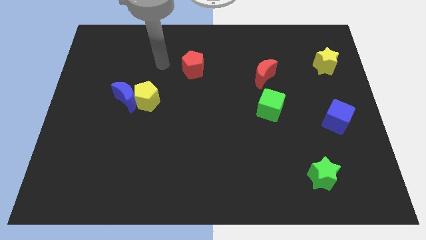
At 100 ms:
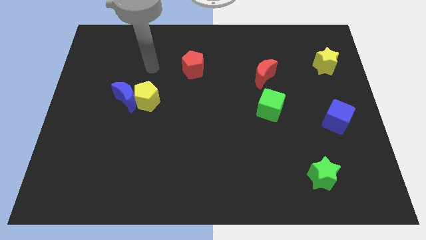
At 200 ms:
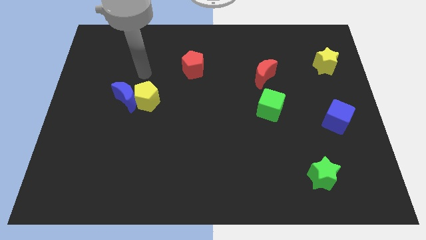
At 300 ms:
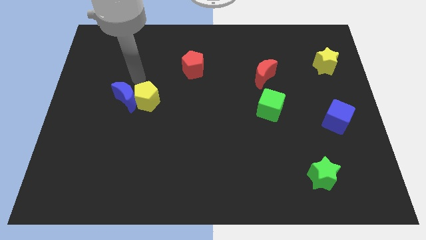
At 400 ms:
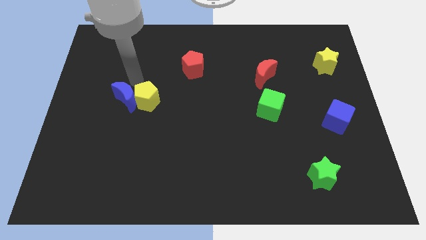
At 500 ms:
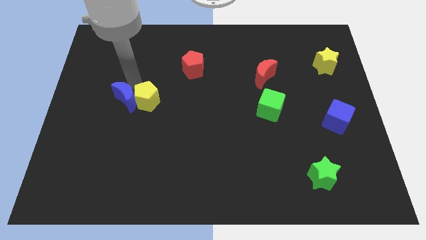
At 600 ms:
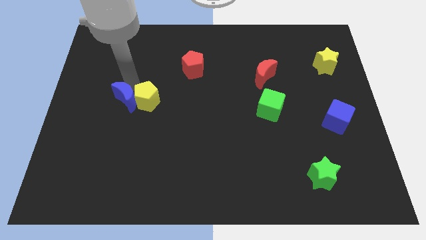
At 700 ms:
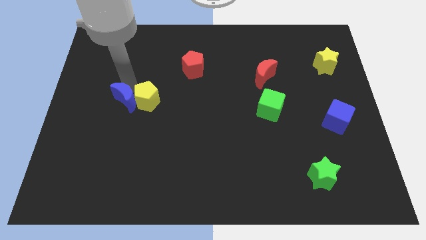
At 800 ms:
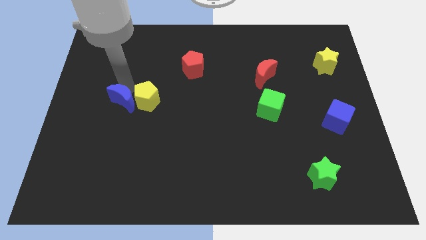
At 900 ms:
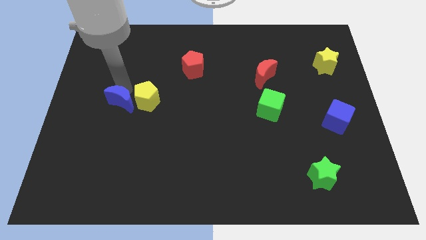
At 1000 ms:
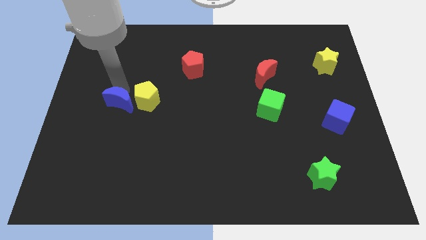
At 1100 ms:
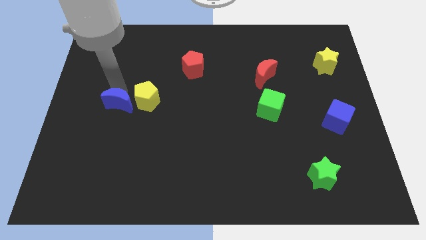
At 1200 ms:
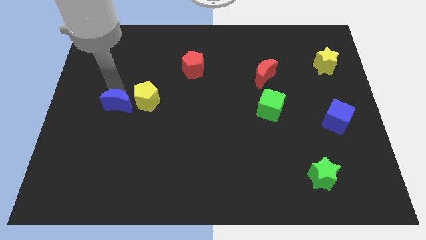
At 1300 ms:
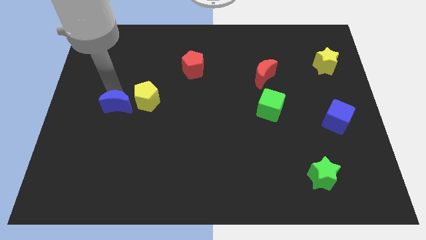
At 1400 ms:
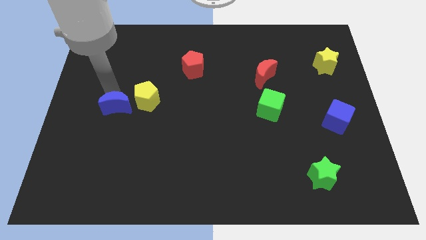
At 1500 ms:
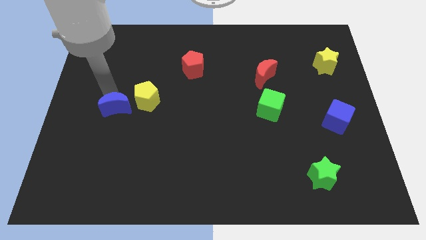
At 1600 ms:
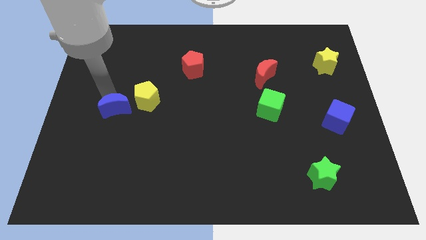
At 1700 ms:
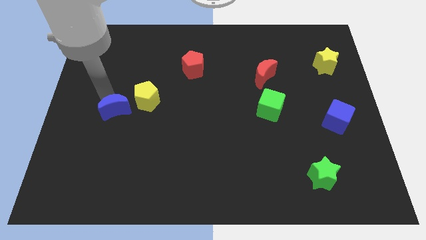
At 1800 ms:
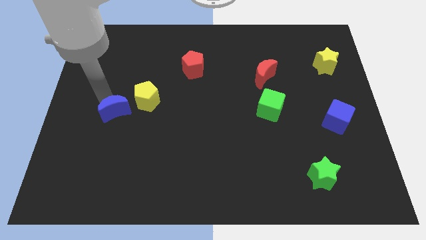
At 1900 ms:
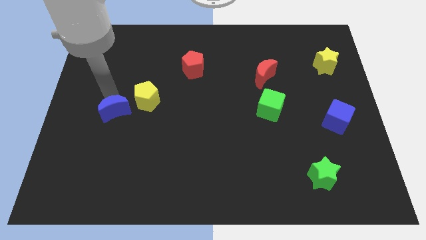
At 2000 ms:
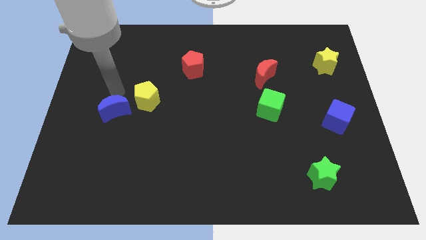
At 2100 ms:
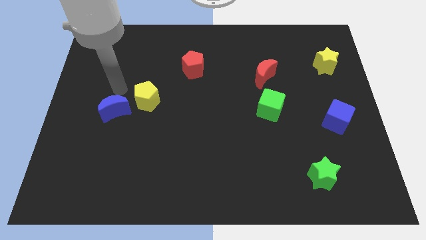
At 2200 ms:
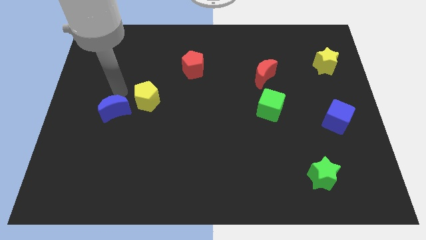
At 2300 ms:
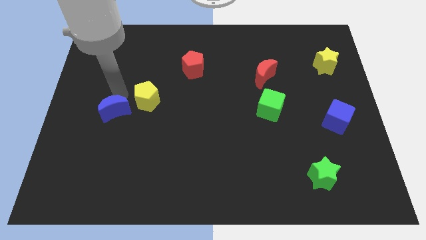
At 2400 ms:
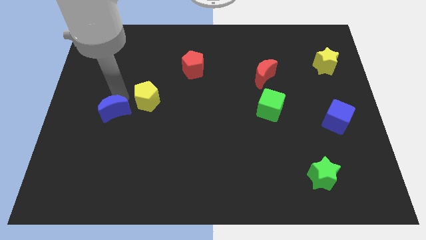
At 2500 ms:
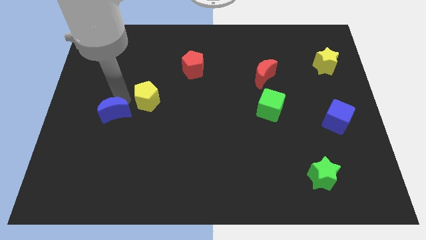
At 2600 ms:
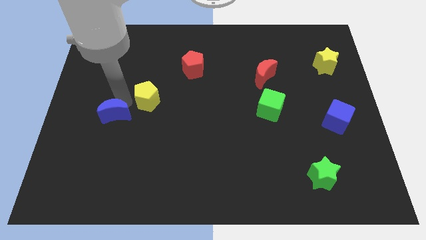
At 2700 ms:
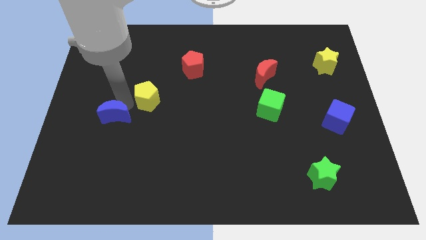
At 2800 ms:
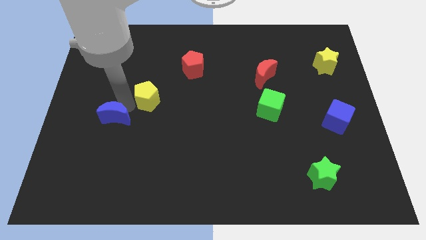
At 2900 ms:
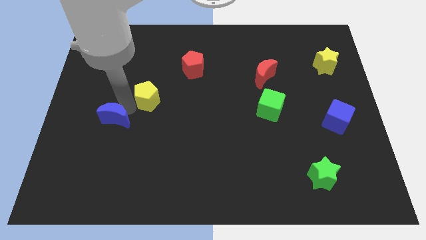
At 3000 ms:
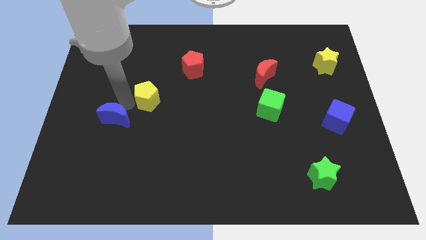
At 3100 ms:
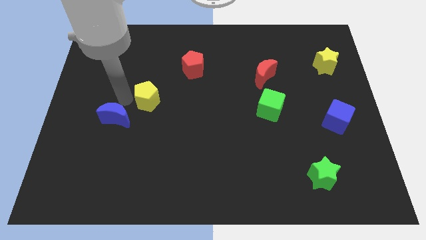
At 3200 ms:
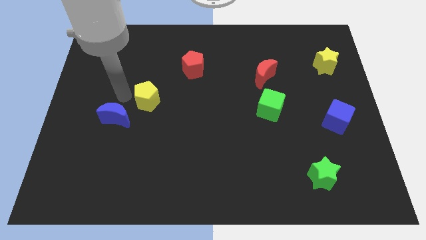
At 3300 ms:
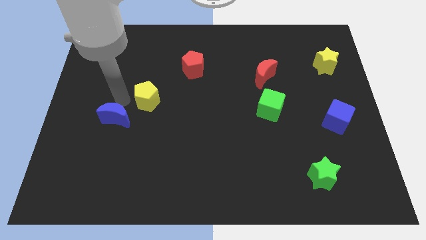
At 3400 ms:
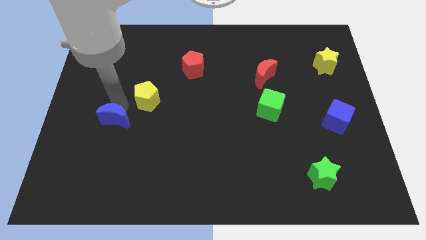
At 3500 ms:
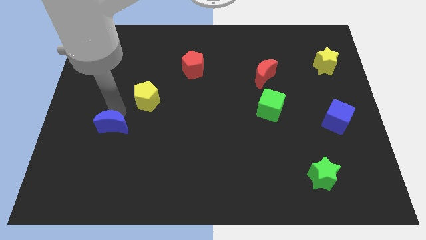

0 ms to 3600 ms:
slightly move the blue moon down

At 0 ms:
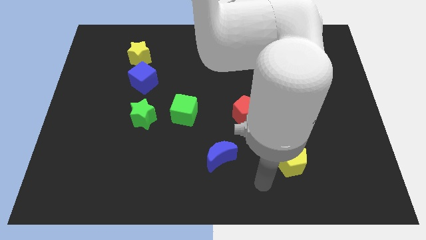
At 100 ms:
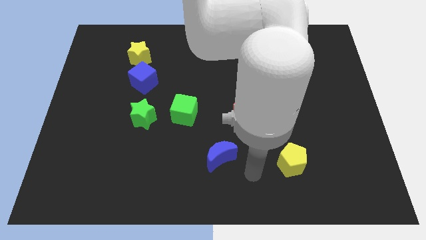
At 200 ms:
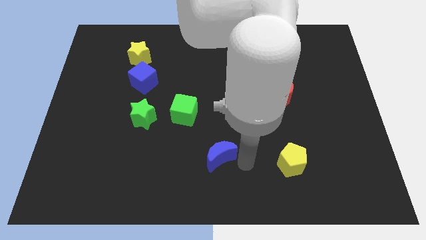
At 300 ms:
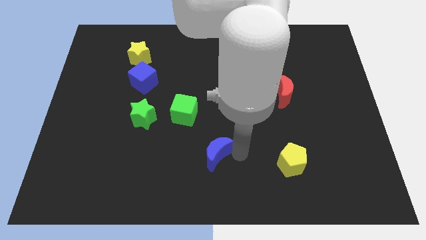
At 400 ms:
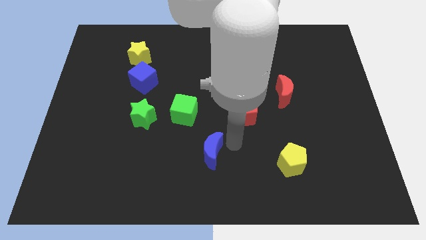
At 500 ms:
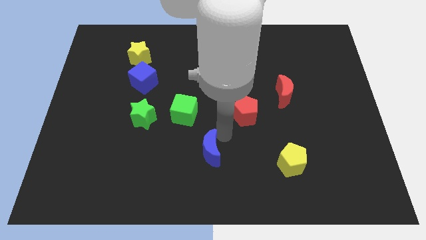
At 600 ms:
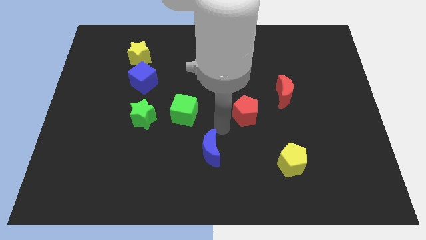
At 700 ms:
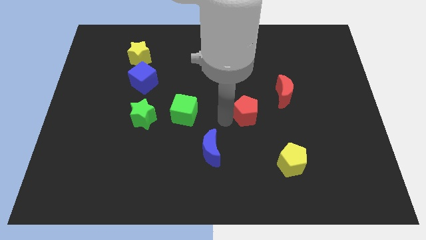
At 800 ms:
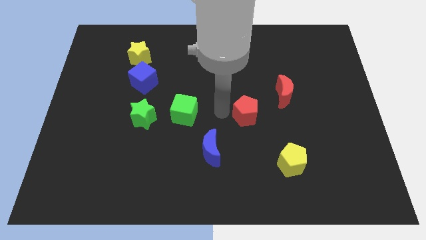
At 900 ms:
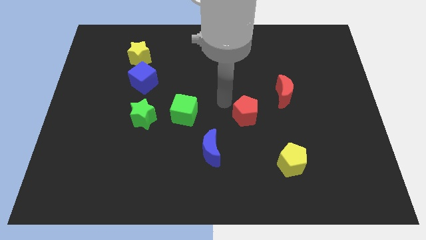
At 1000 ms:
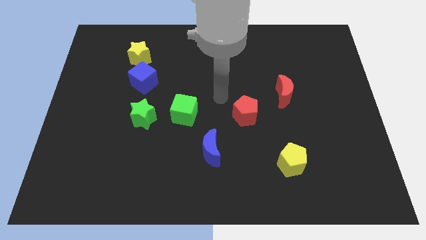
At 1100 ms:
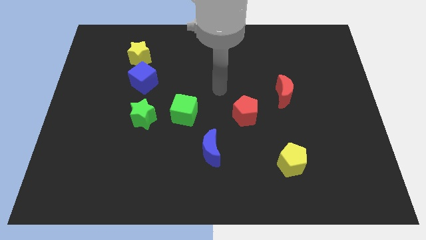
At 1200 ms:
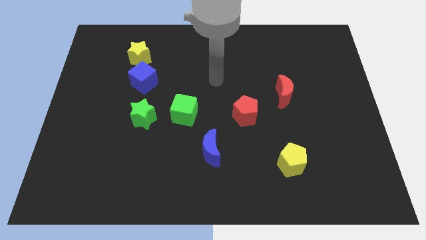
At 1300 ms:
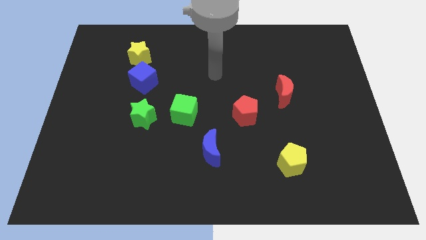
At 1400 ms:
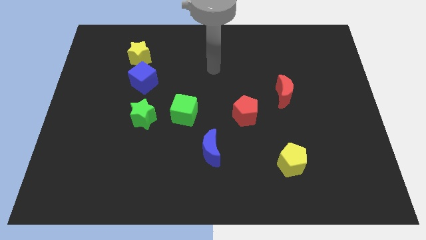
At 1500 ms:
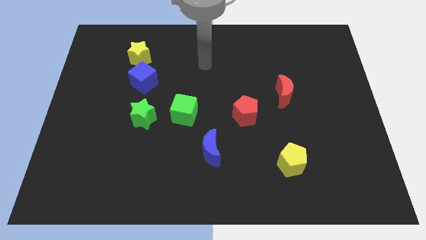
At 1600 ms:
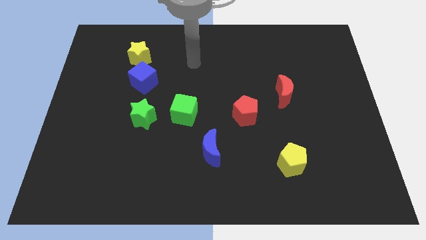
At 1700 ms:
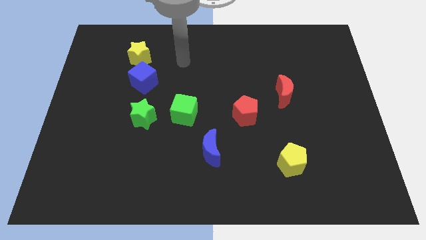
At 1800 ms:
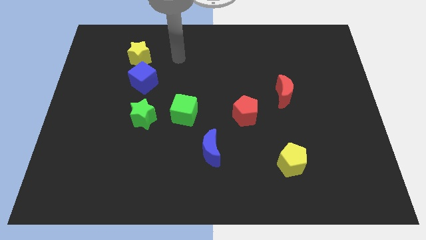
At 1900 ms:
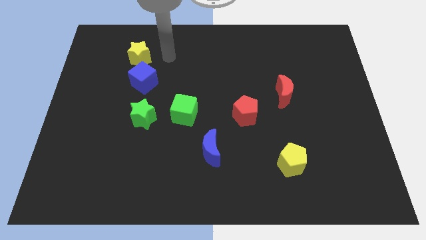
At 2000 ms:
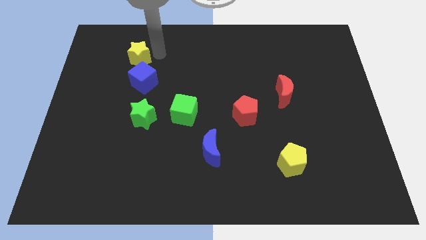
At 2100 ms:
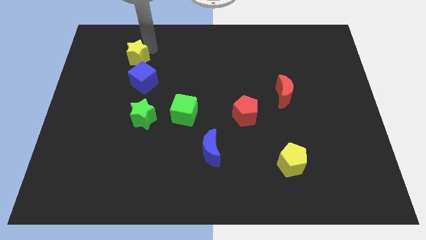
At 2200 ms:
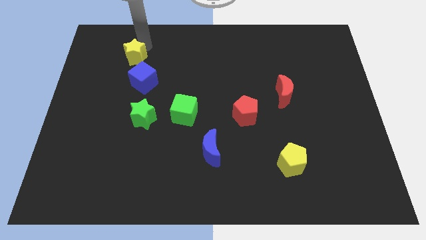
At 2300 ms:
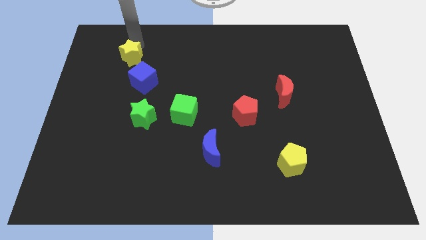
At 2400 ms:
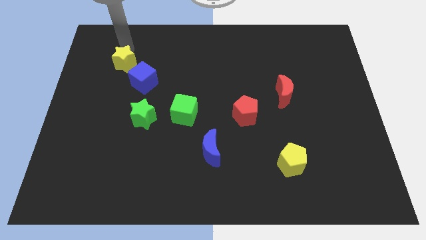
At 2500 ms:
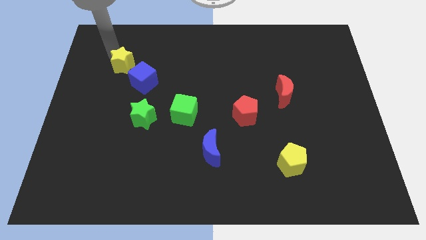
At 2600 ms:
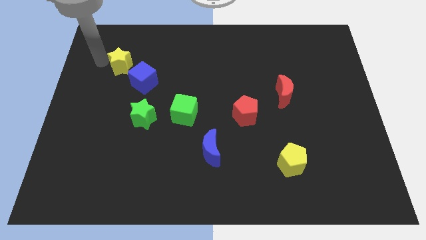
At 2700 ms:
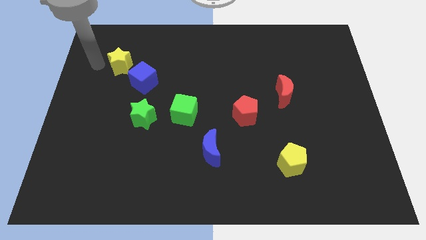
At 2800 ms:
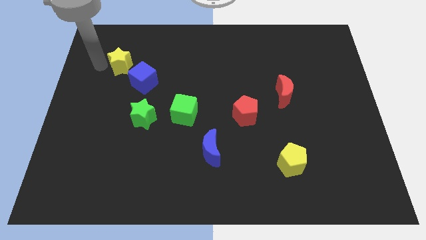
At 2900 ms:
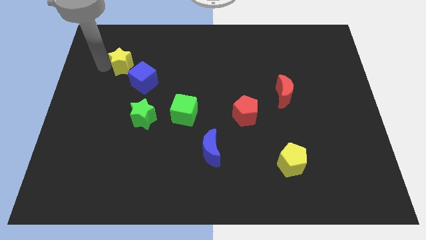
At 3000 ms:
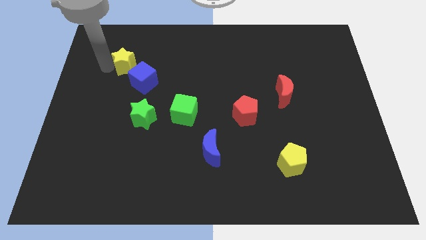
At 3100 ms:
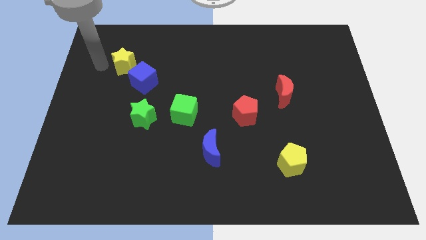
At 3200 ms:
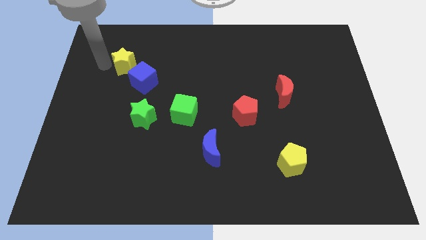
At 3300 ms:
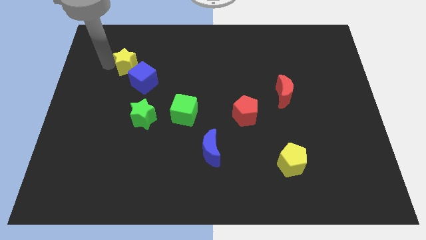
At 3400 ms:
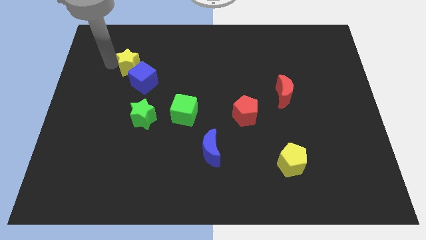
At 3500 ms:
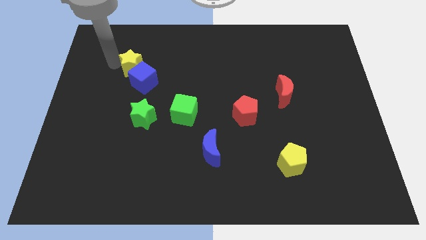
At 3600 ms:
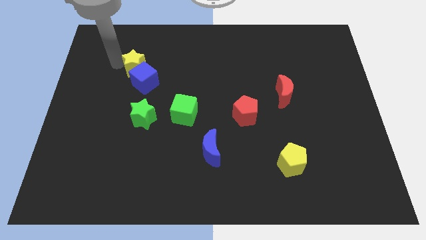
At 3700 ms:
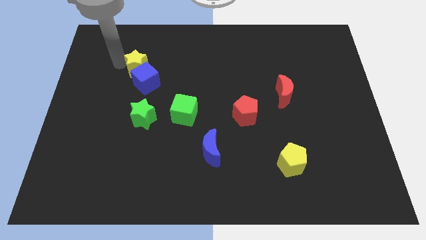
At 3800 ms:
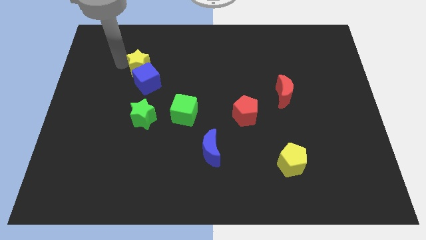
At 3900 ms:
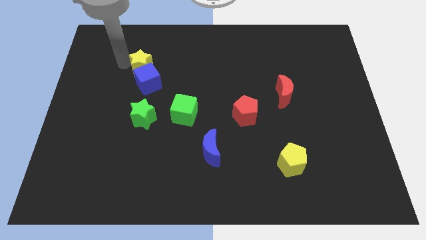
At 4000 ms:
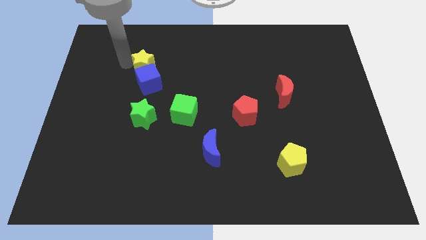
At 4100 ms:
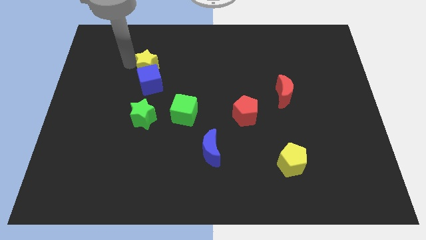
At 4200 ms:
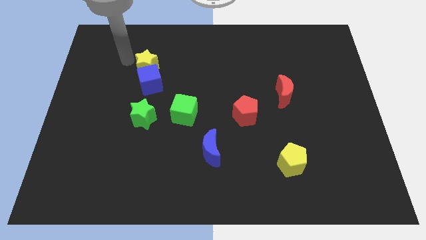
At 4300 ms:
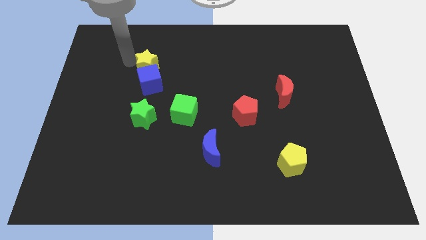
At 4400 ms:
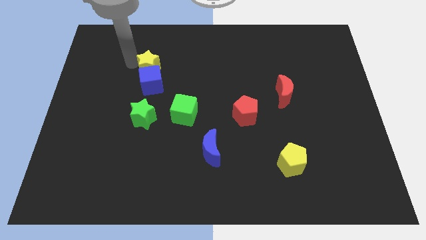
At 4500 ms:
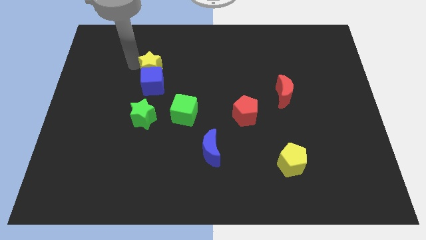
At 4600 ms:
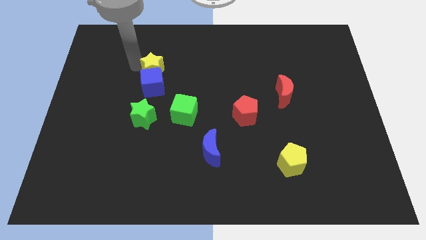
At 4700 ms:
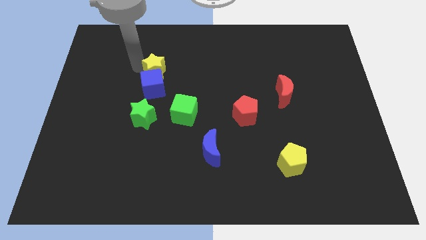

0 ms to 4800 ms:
move the yellow star down and to the right diagonally slightly
